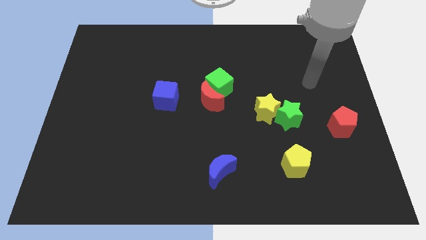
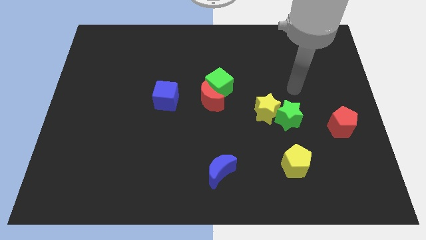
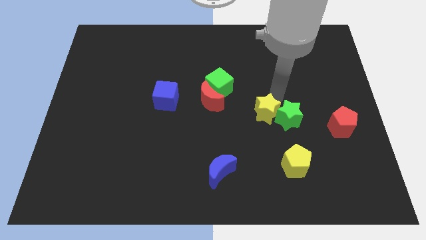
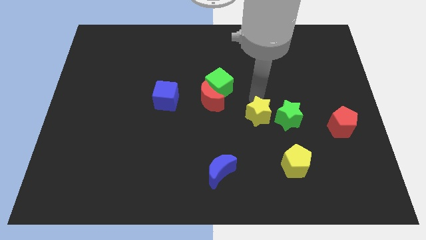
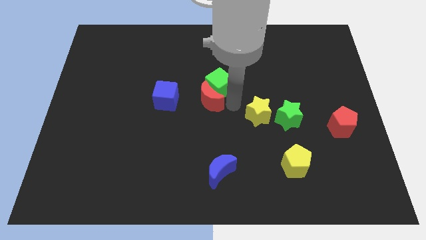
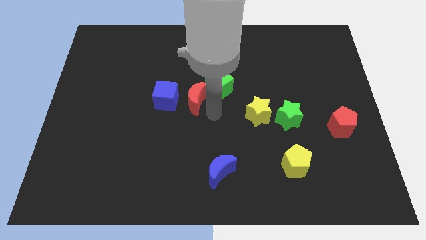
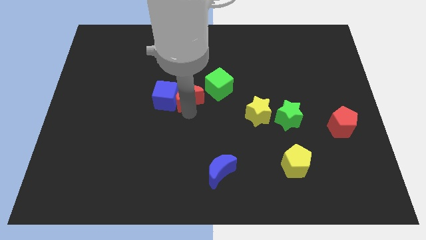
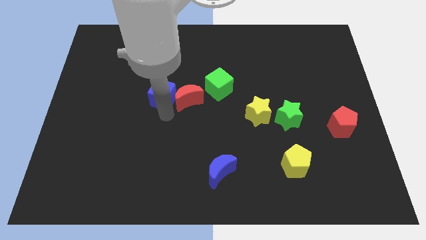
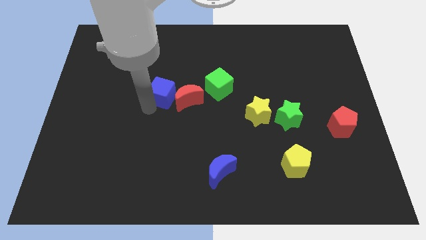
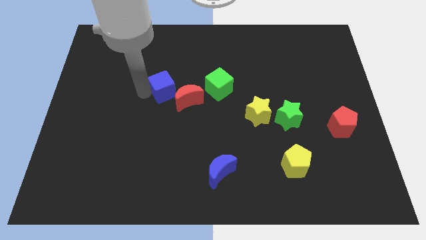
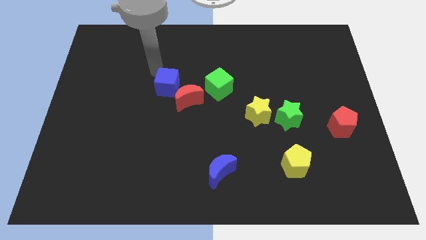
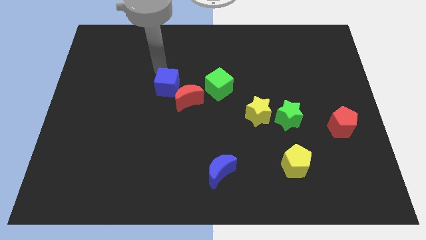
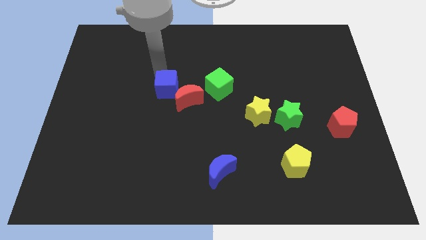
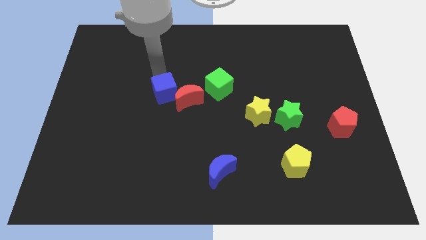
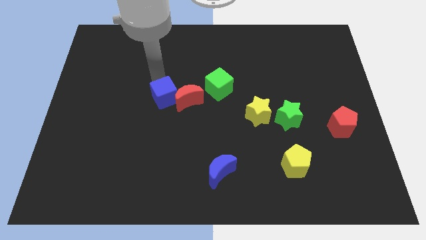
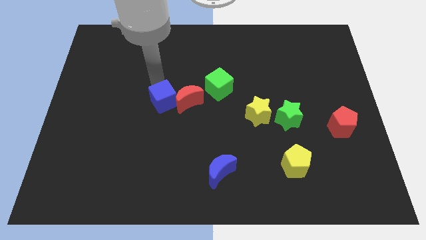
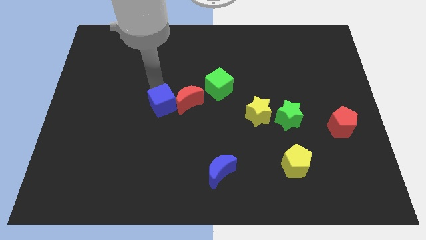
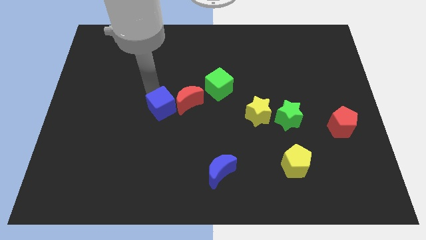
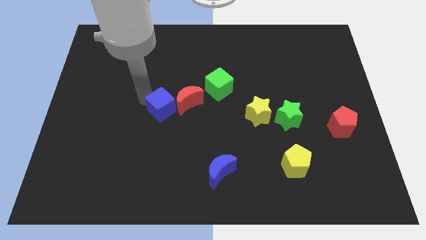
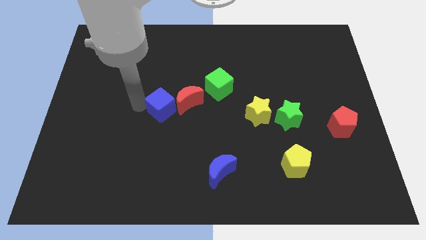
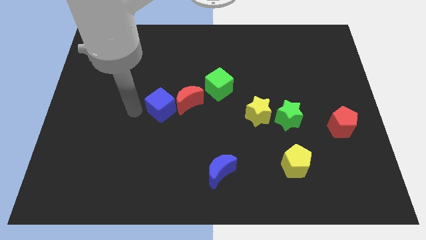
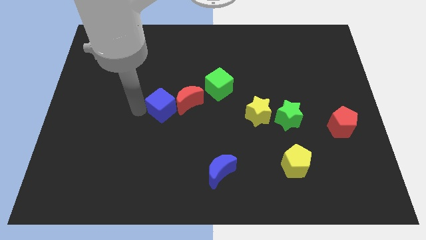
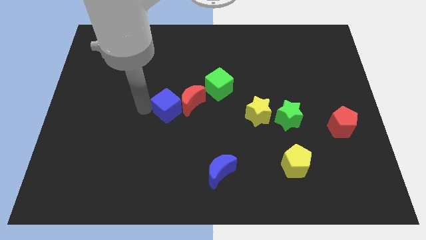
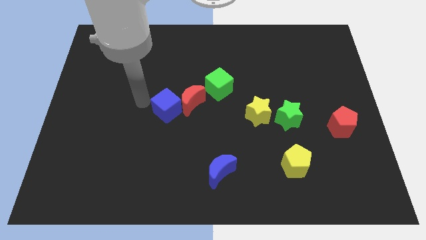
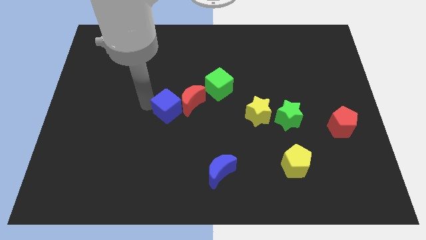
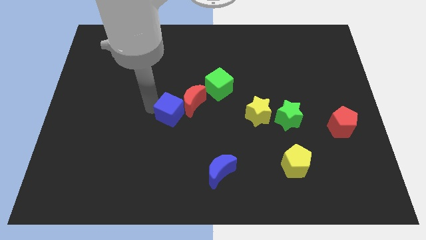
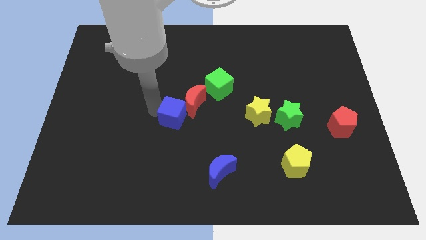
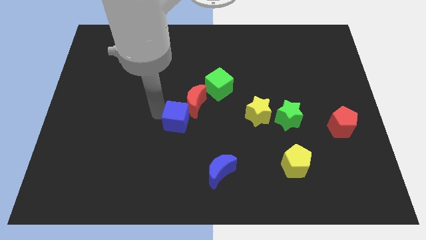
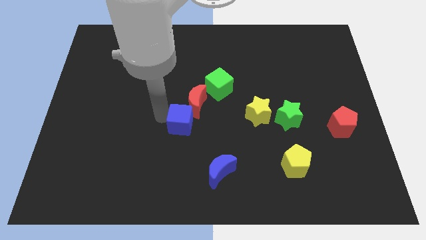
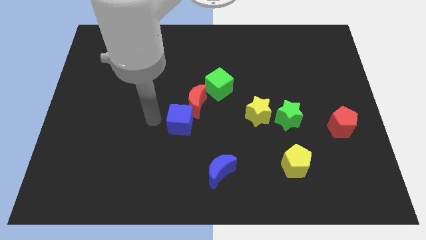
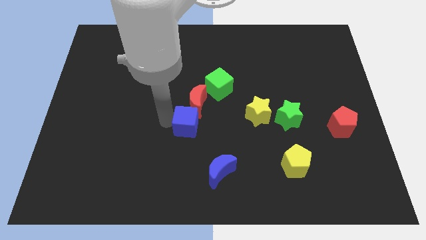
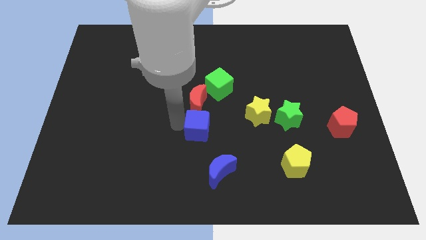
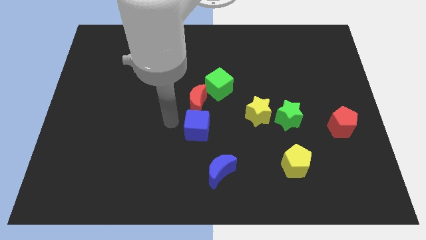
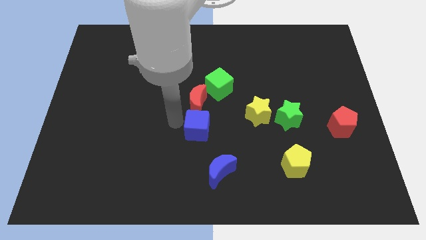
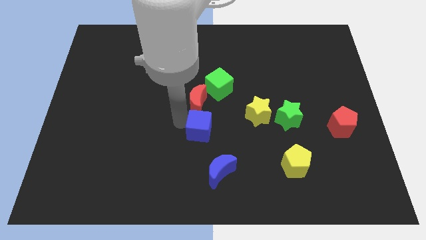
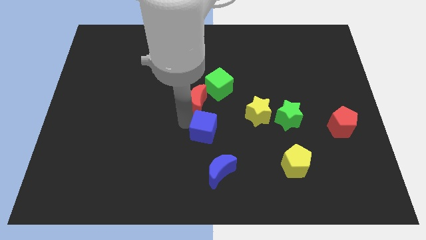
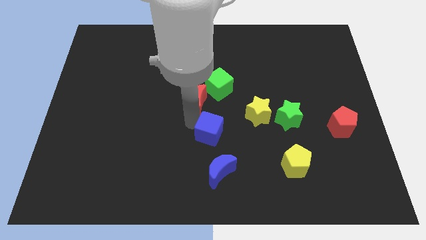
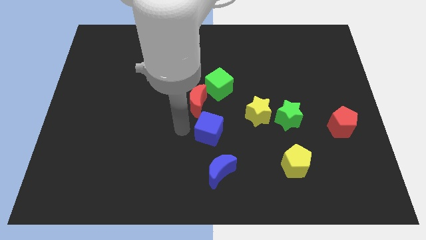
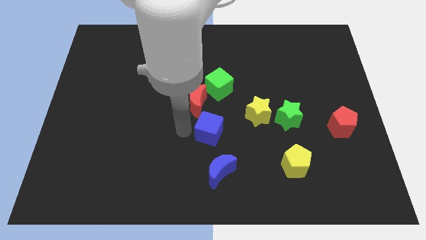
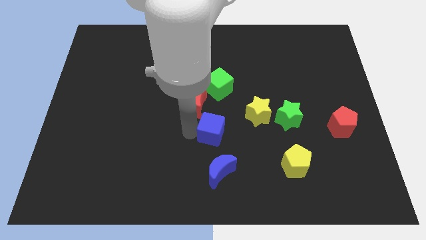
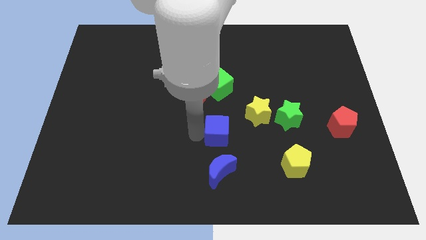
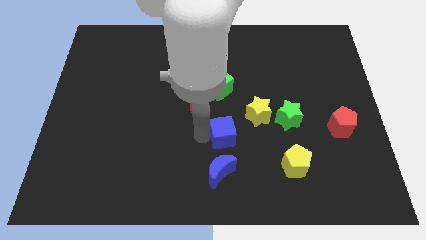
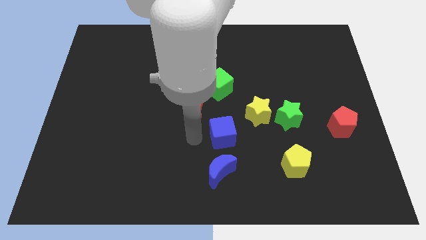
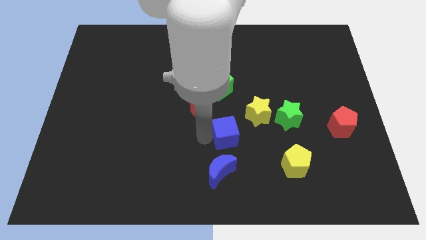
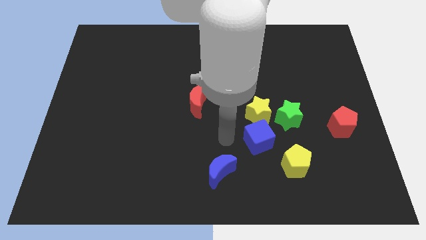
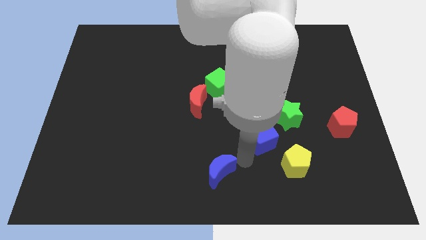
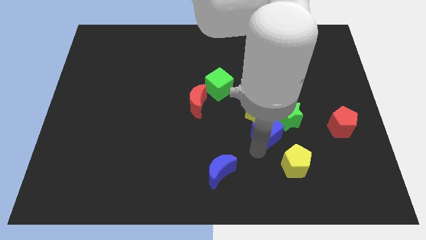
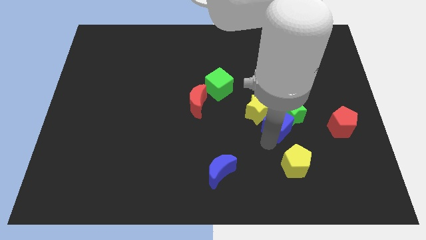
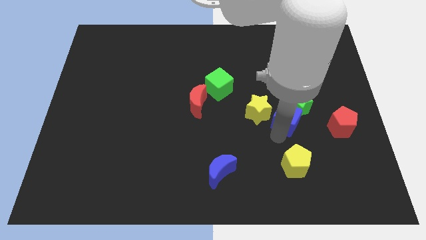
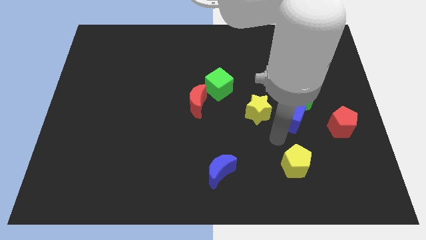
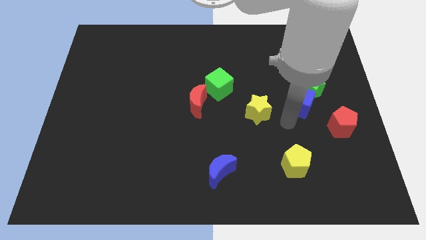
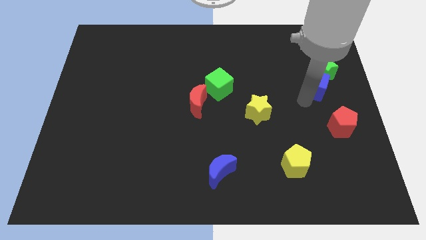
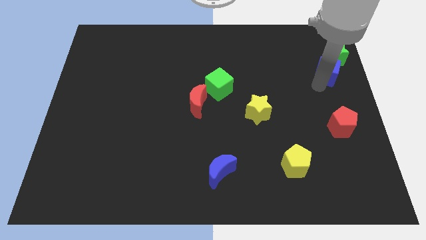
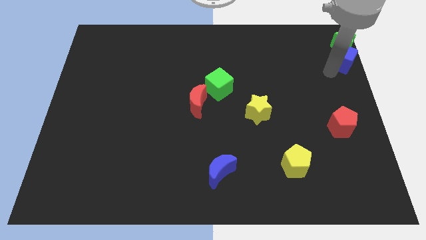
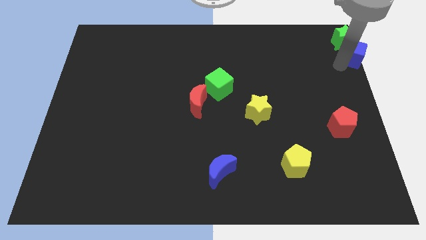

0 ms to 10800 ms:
put the blue cube to the upper right corner

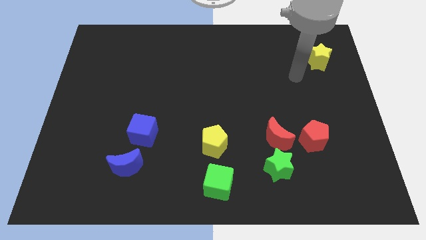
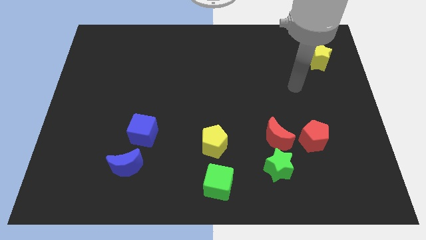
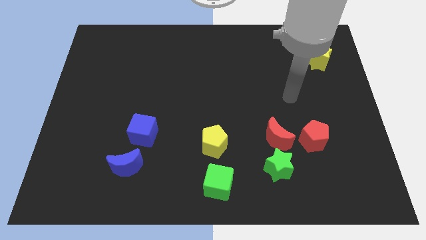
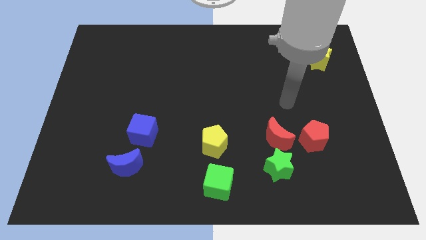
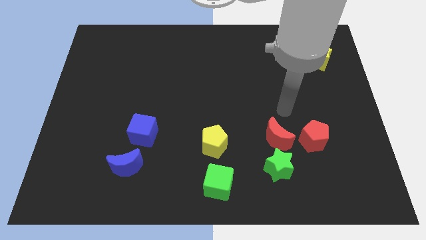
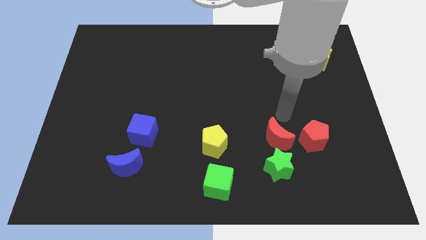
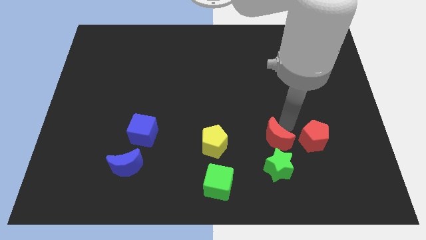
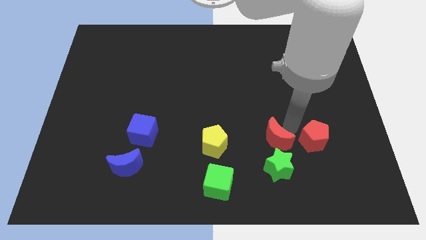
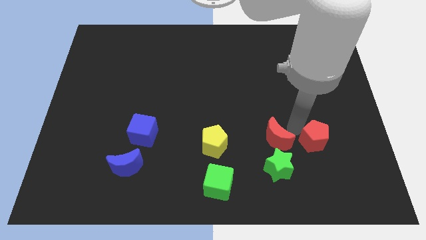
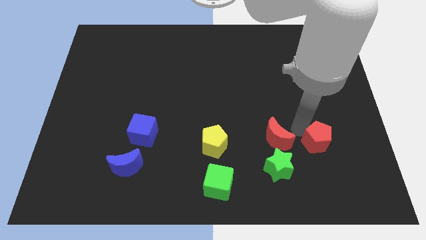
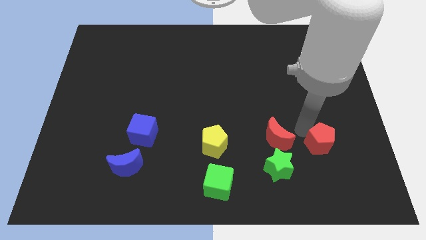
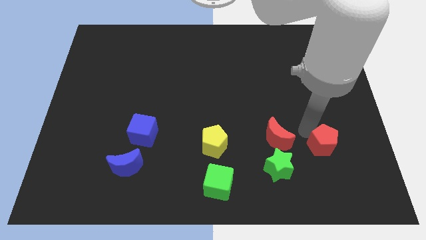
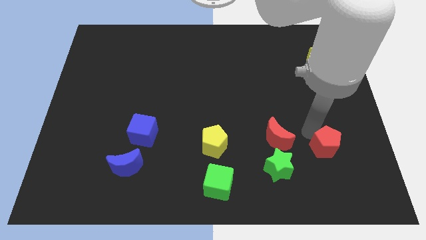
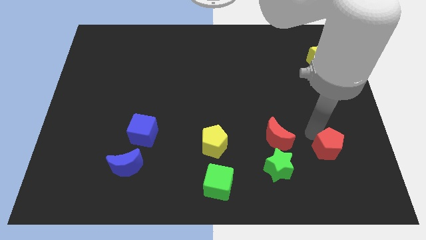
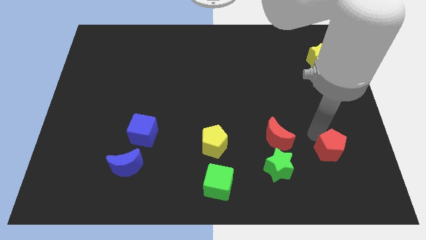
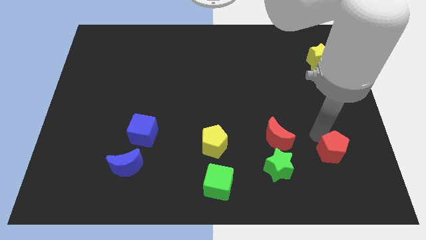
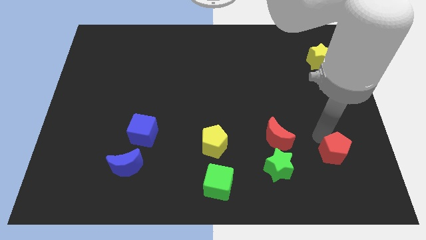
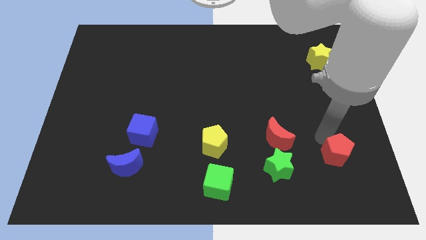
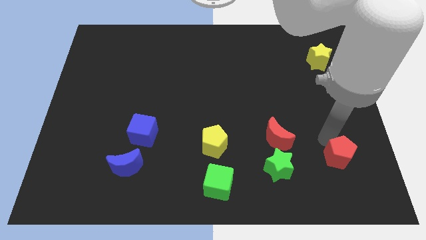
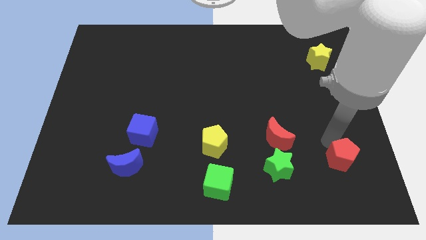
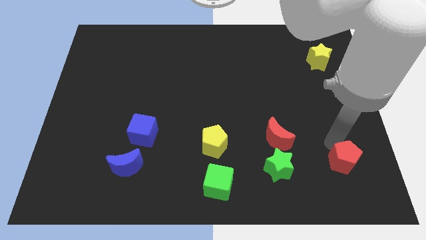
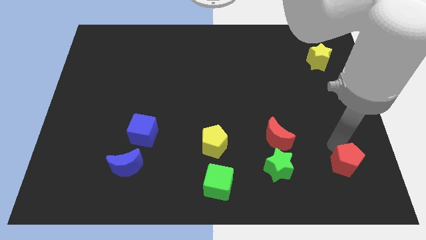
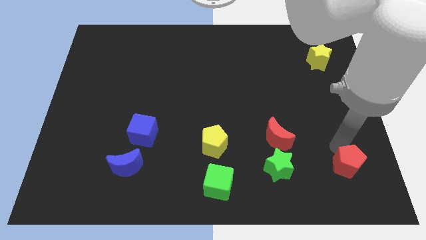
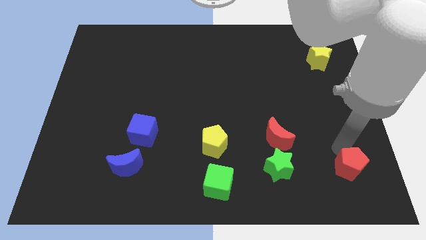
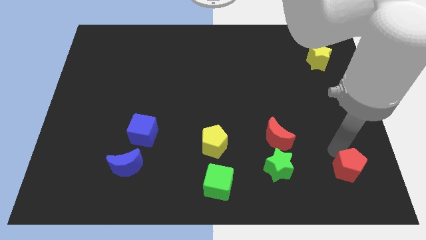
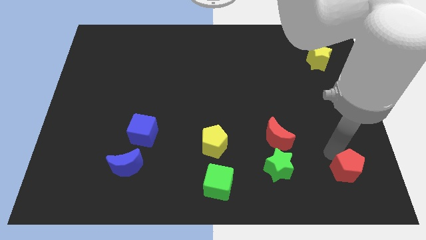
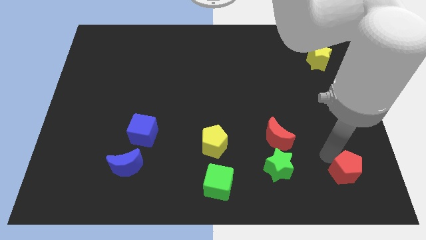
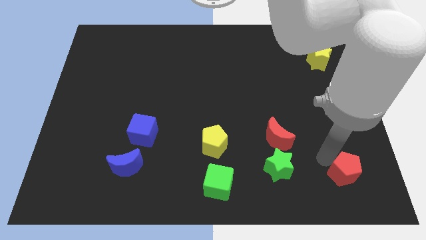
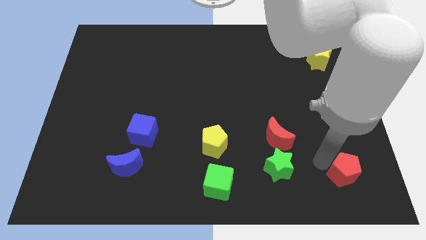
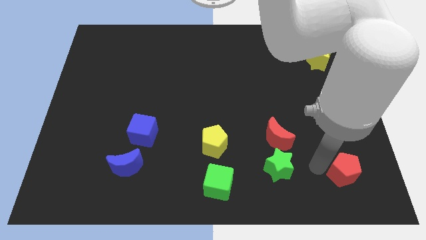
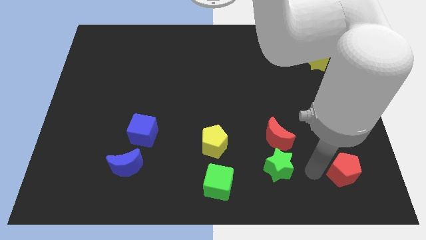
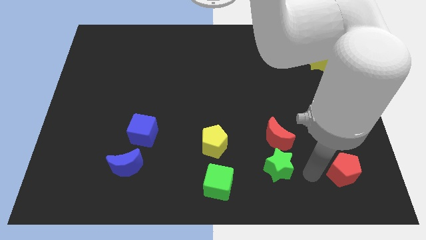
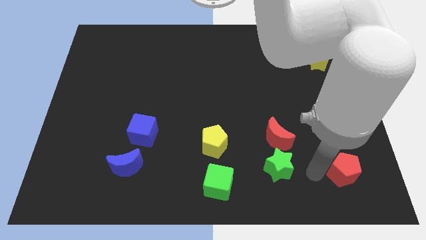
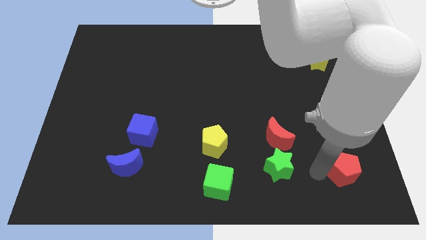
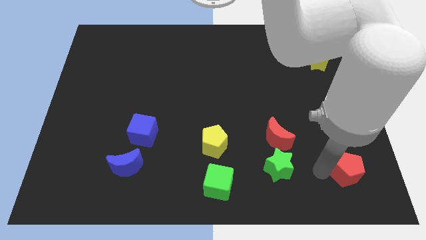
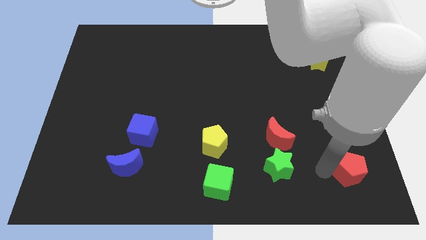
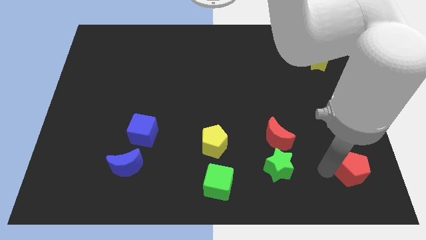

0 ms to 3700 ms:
put the red pentagon to the bottom right corner
